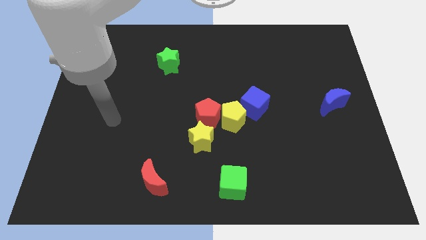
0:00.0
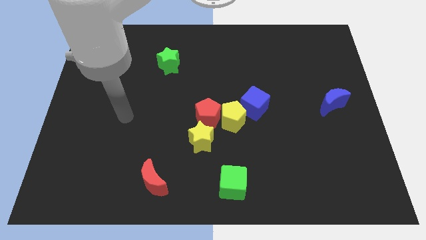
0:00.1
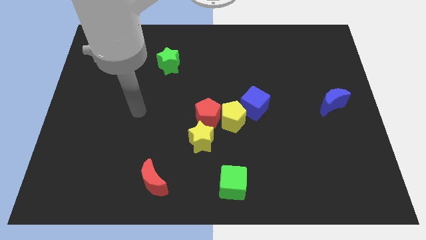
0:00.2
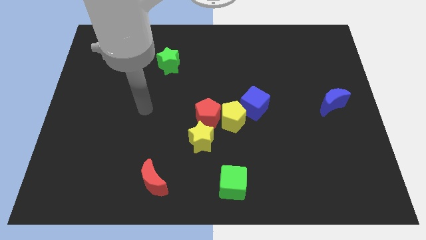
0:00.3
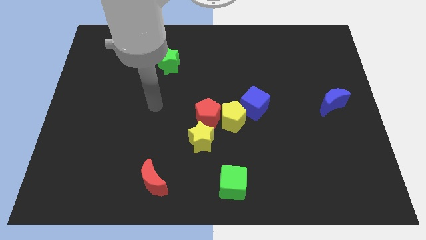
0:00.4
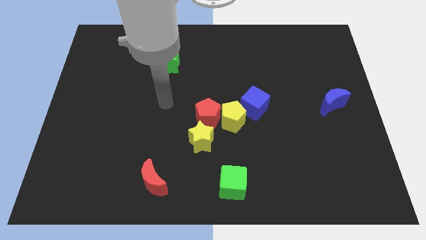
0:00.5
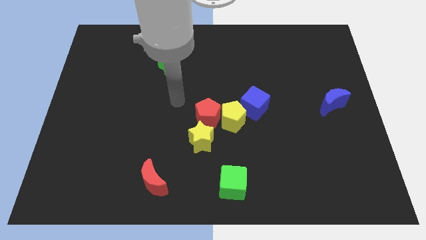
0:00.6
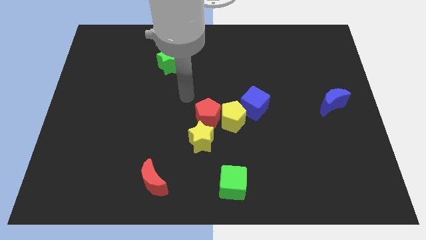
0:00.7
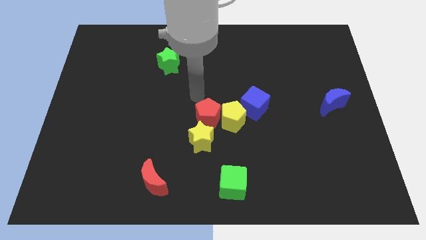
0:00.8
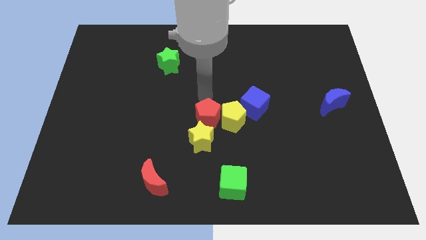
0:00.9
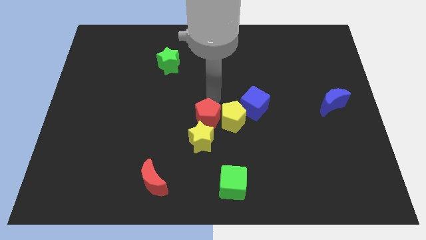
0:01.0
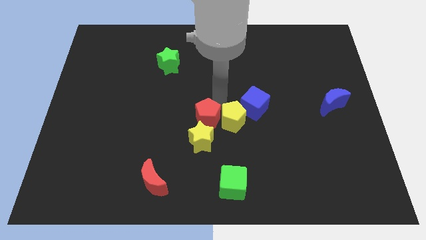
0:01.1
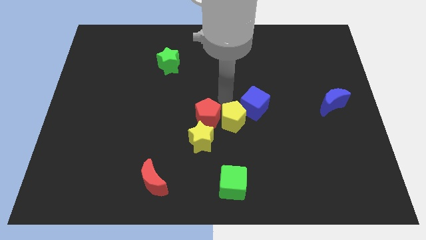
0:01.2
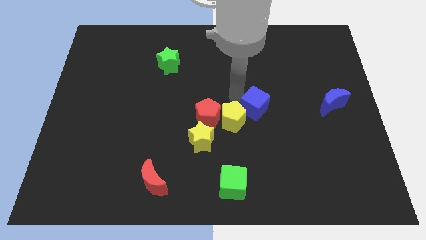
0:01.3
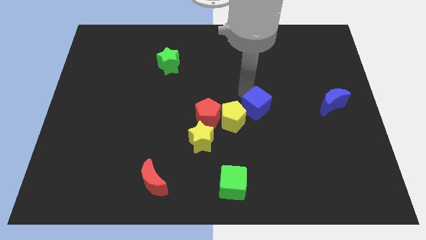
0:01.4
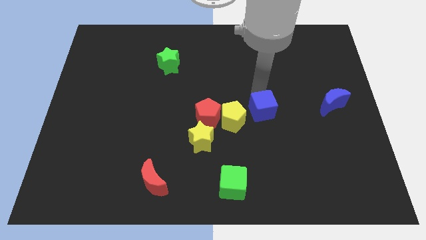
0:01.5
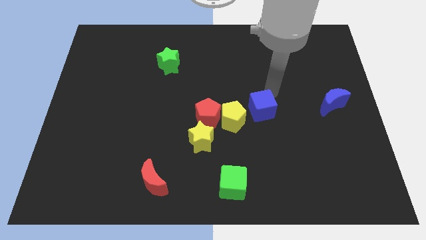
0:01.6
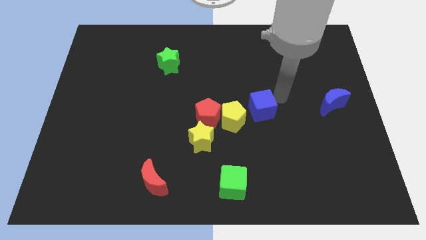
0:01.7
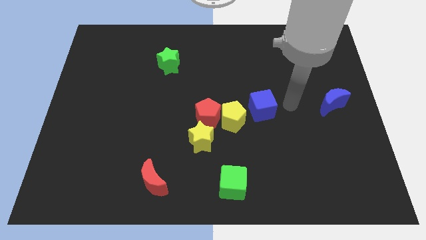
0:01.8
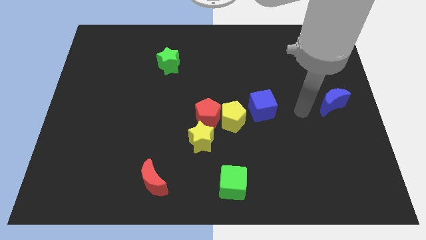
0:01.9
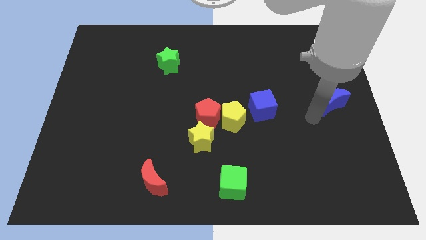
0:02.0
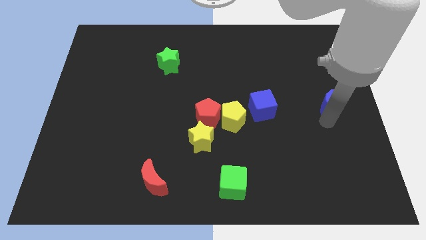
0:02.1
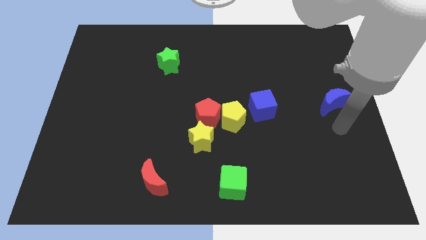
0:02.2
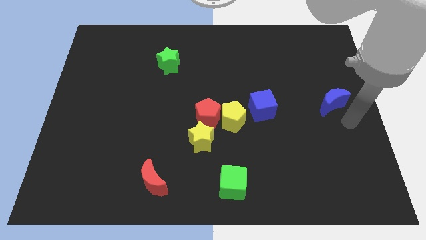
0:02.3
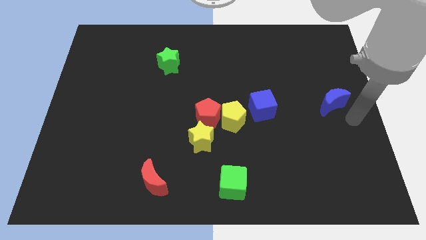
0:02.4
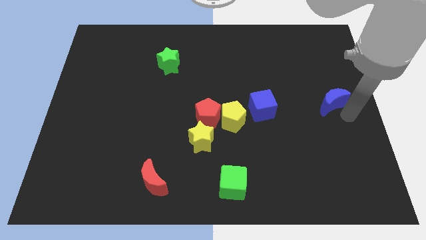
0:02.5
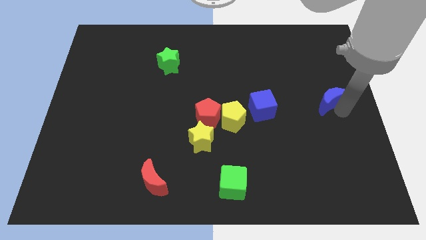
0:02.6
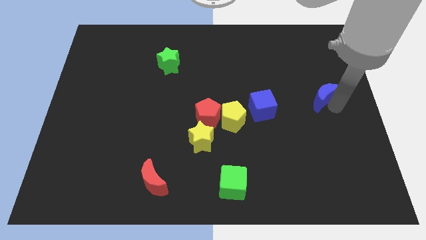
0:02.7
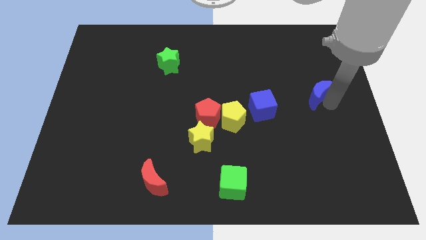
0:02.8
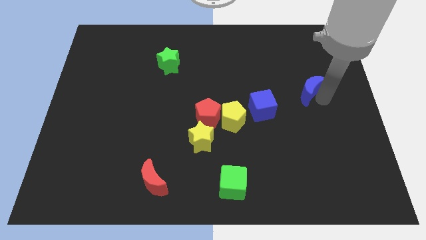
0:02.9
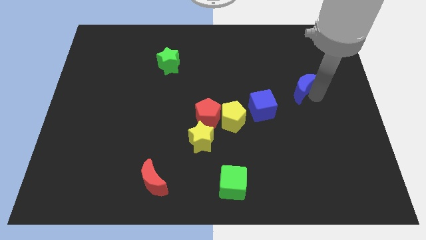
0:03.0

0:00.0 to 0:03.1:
slightly slide the blue moon diagonally up and to the left

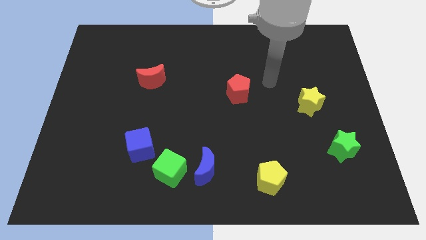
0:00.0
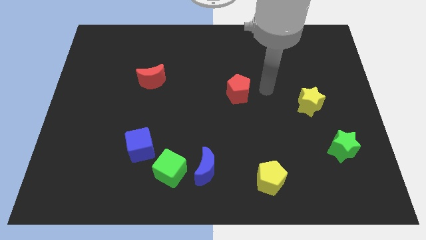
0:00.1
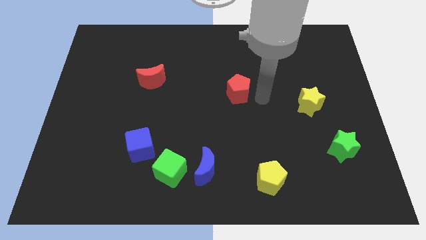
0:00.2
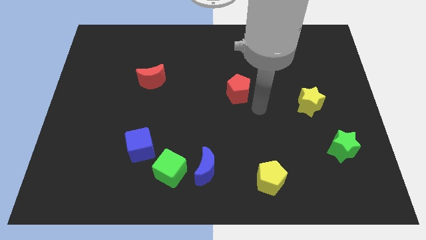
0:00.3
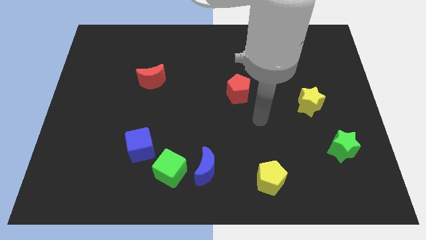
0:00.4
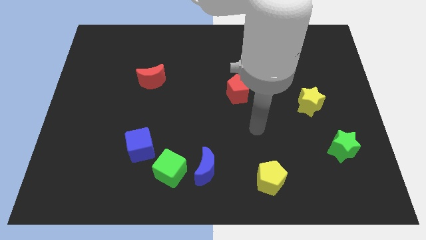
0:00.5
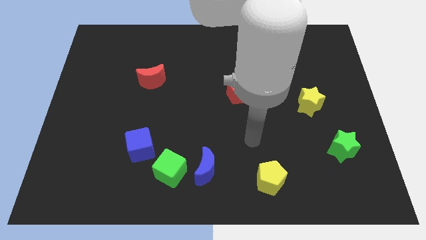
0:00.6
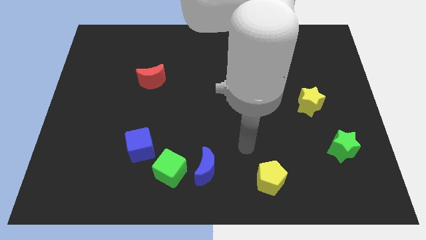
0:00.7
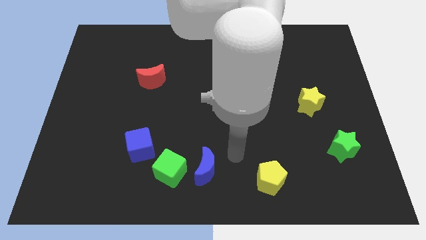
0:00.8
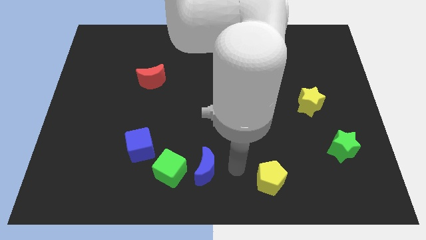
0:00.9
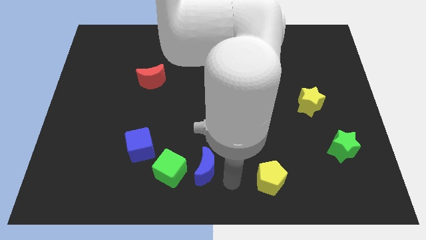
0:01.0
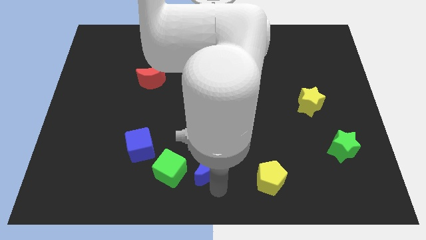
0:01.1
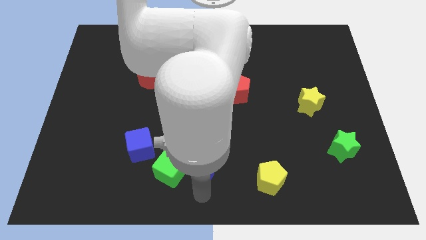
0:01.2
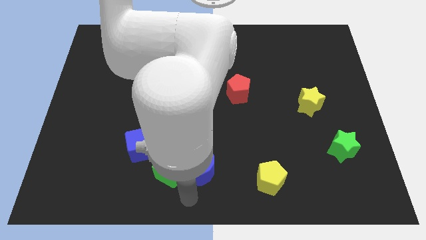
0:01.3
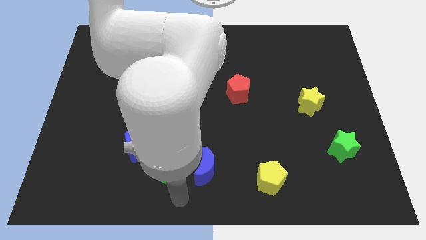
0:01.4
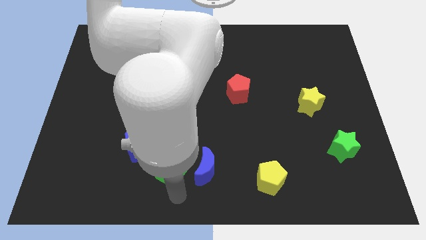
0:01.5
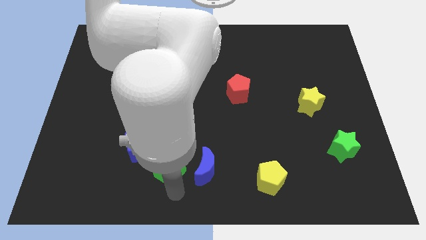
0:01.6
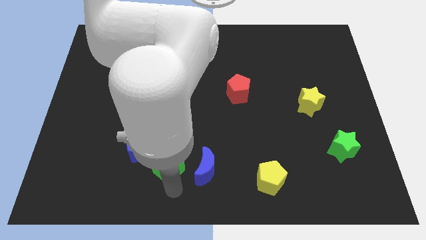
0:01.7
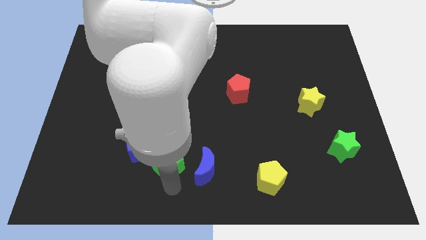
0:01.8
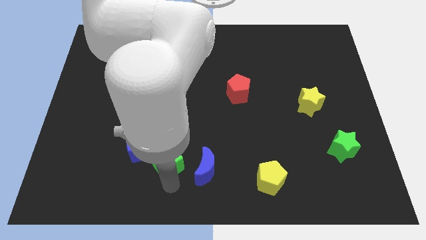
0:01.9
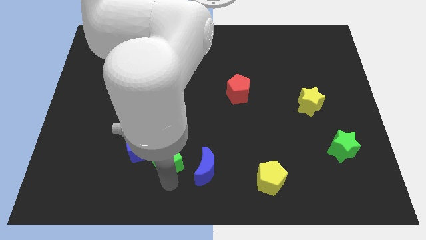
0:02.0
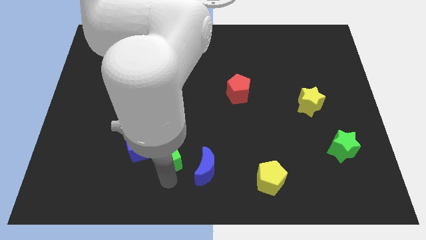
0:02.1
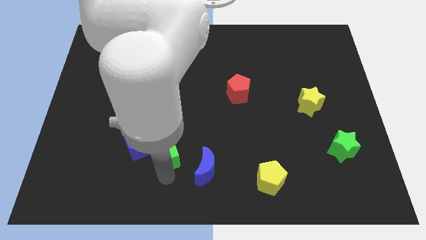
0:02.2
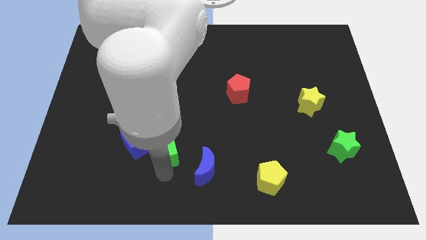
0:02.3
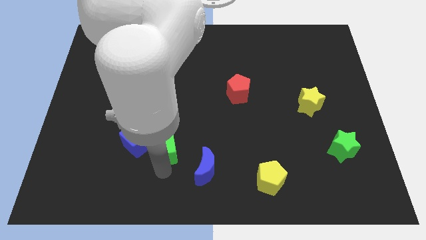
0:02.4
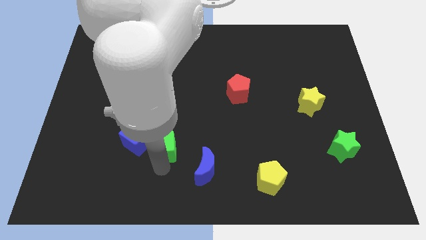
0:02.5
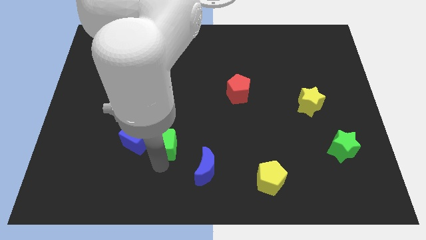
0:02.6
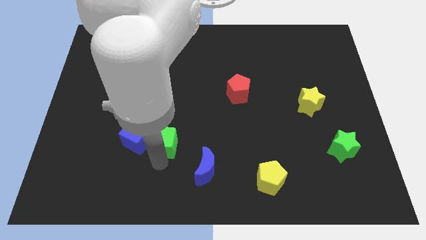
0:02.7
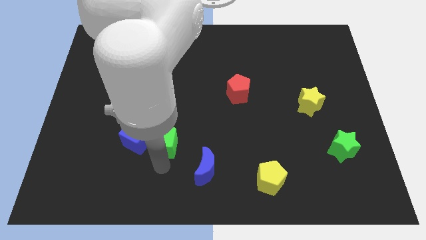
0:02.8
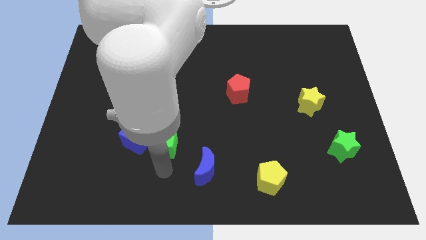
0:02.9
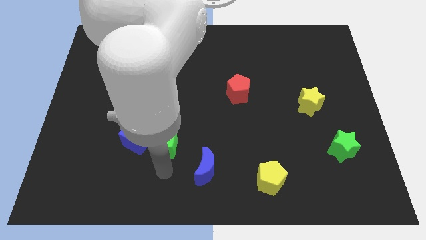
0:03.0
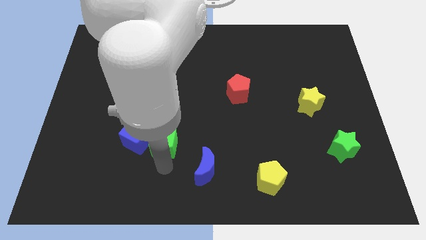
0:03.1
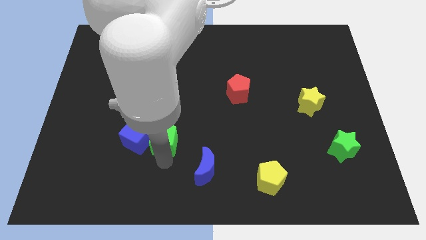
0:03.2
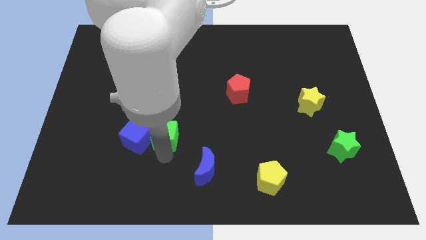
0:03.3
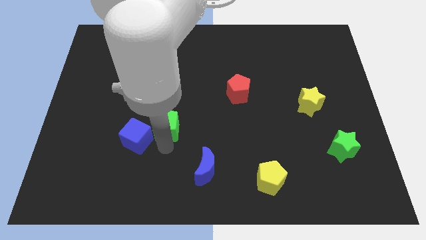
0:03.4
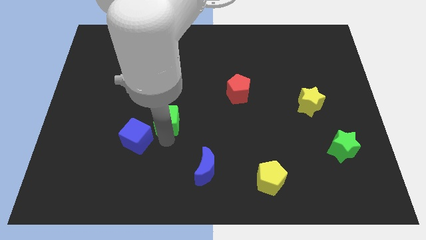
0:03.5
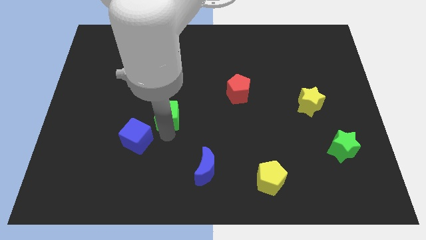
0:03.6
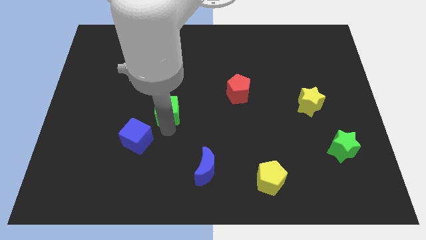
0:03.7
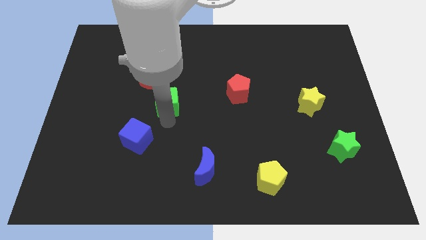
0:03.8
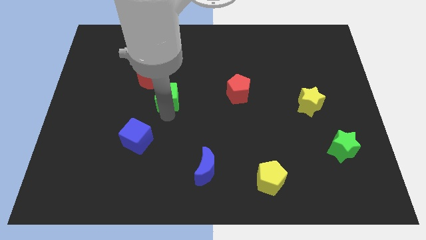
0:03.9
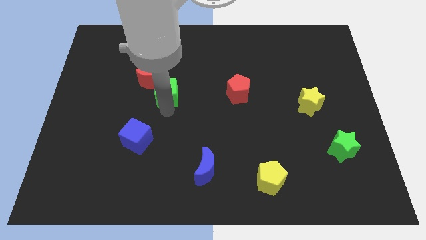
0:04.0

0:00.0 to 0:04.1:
slide the green cube up

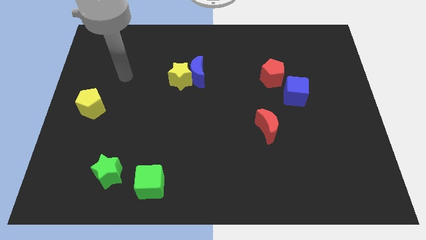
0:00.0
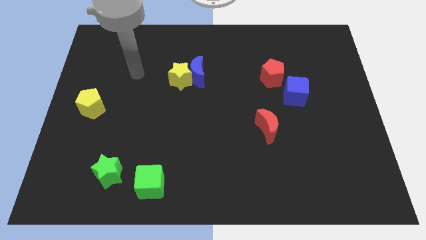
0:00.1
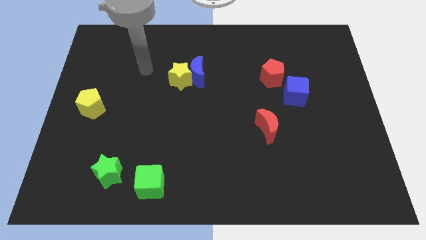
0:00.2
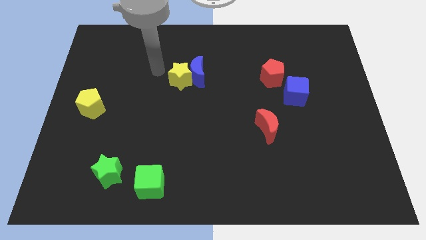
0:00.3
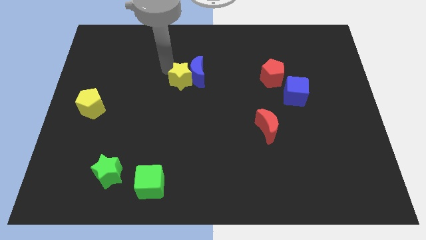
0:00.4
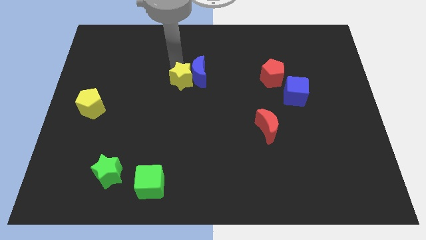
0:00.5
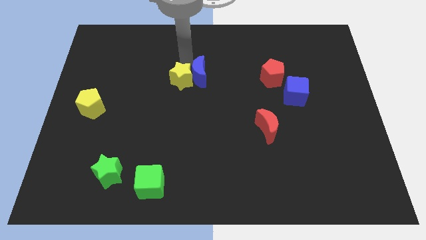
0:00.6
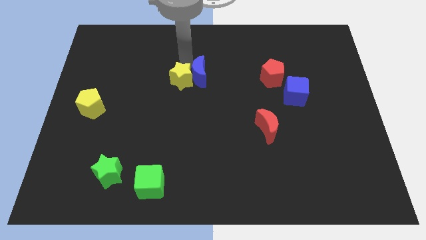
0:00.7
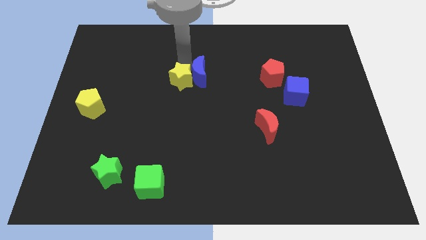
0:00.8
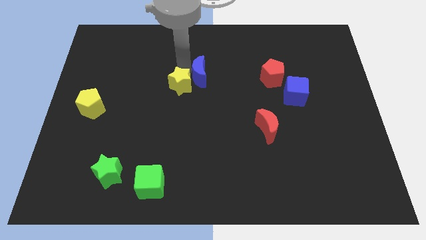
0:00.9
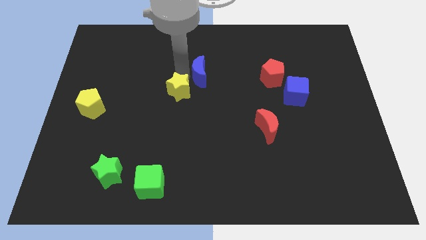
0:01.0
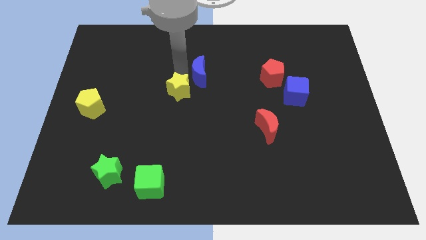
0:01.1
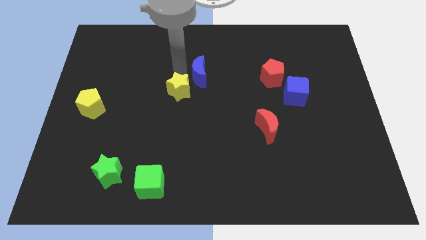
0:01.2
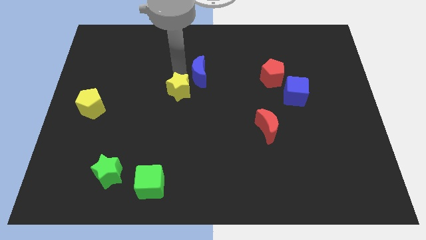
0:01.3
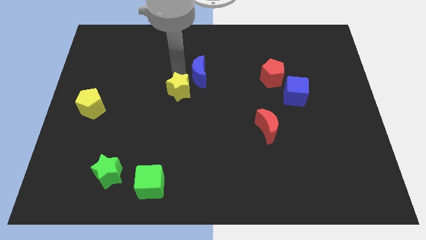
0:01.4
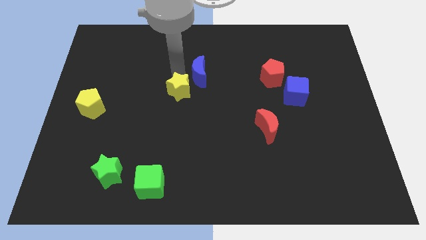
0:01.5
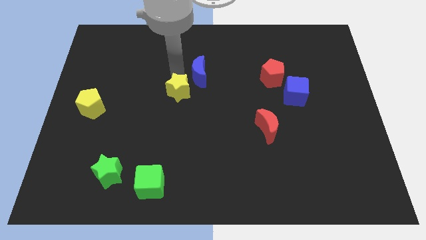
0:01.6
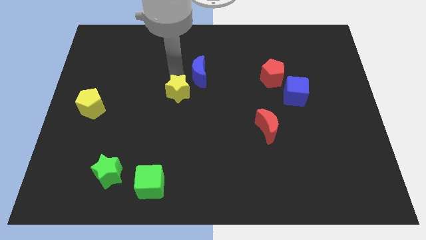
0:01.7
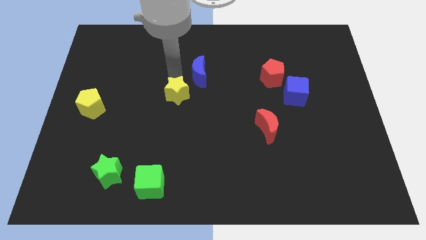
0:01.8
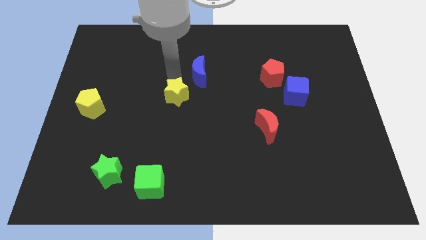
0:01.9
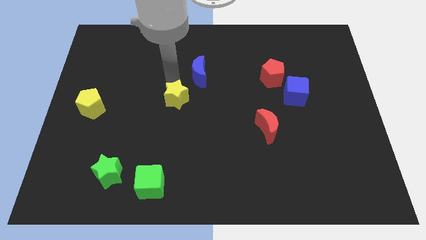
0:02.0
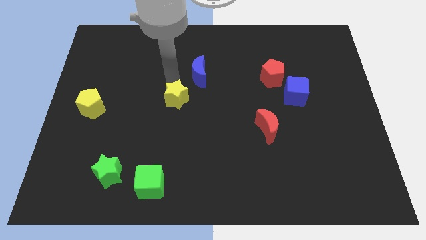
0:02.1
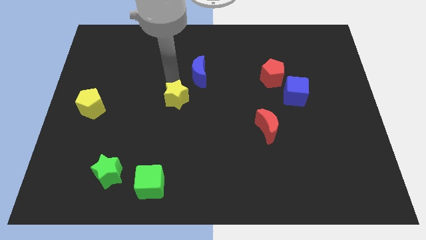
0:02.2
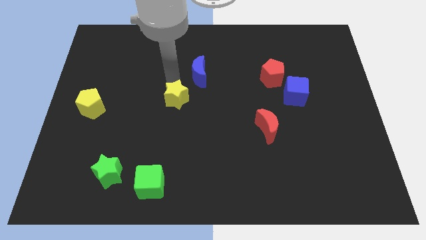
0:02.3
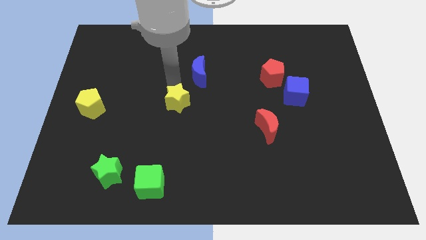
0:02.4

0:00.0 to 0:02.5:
move the yellow star somewhat downwards
